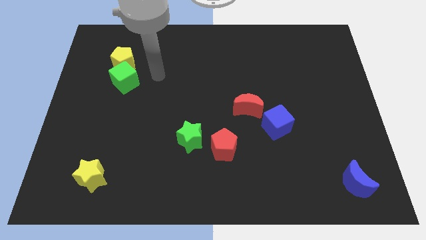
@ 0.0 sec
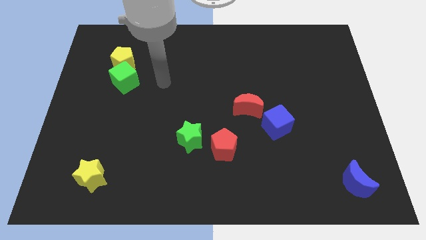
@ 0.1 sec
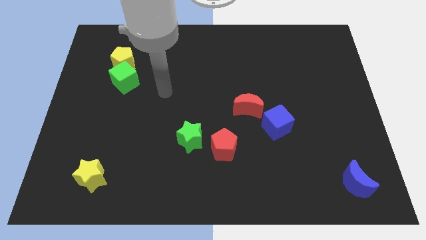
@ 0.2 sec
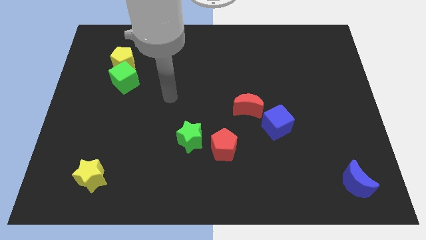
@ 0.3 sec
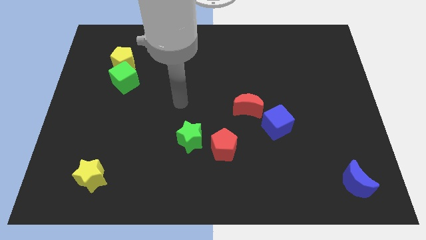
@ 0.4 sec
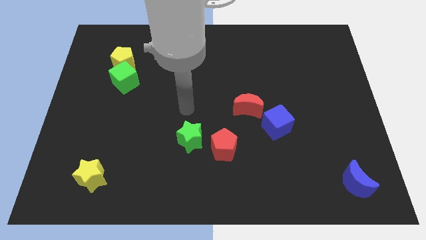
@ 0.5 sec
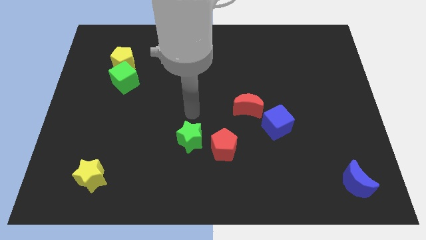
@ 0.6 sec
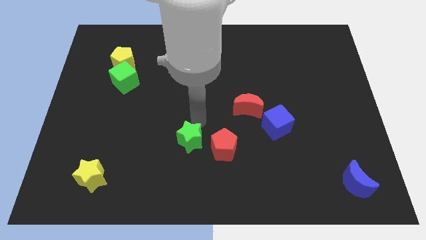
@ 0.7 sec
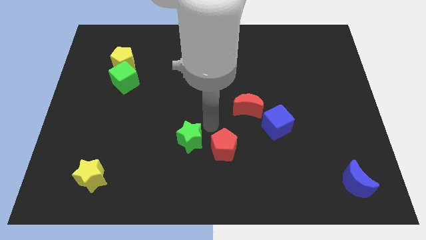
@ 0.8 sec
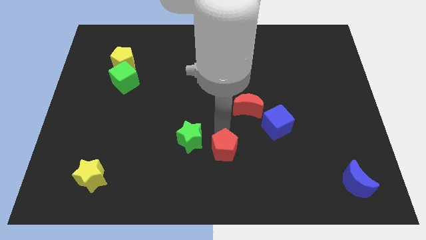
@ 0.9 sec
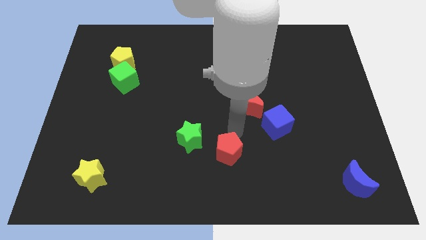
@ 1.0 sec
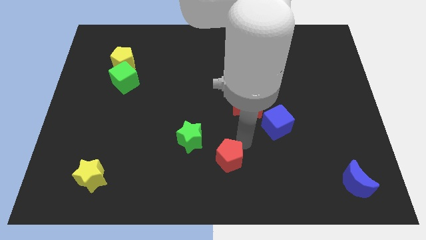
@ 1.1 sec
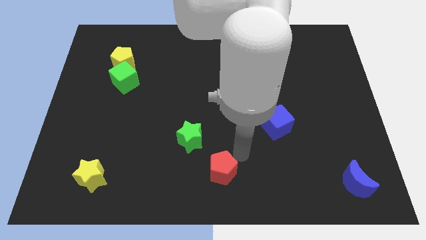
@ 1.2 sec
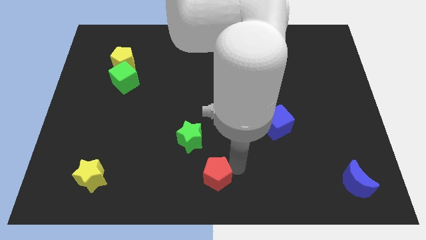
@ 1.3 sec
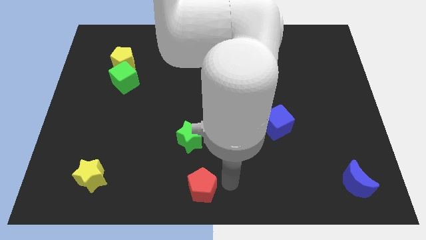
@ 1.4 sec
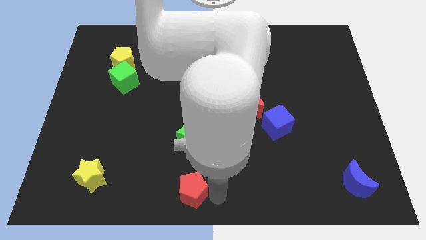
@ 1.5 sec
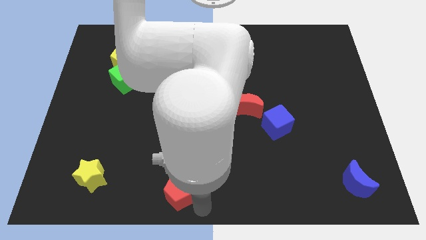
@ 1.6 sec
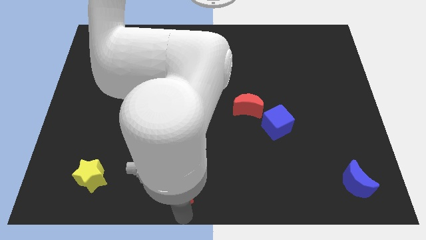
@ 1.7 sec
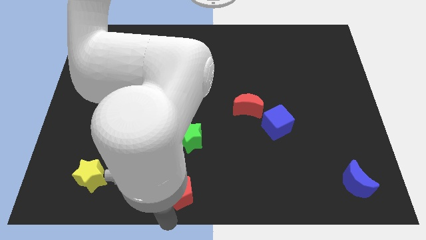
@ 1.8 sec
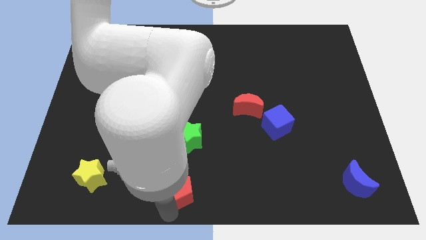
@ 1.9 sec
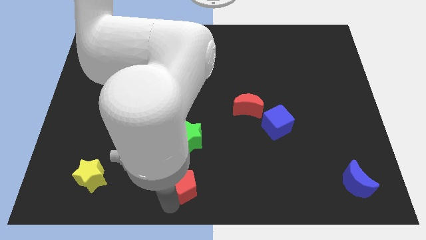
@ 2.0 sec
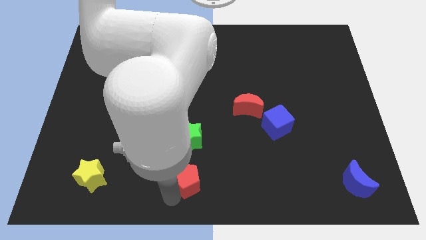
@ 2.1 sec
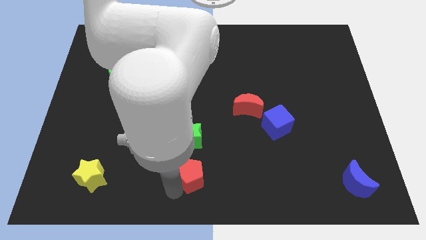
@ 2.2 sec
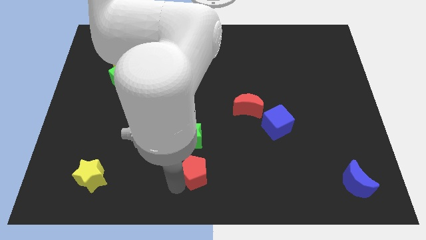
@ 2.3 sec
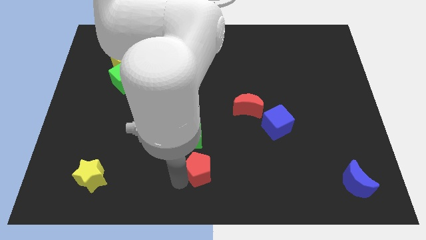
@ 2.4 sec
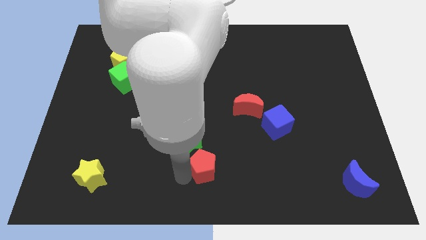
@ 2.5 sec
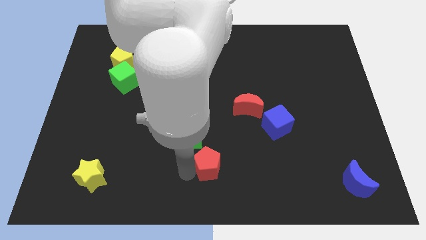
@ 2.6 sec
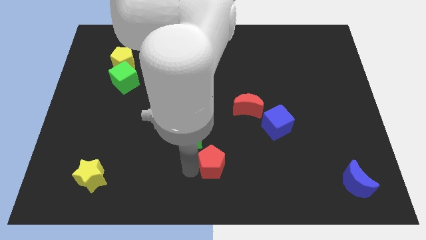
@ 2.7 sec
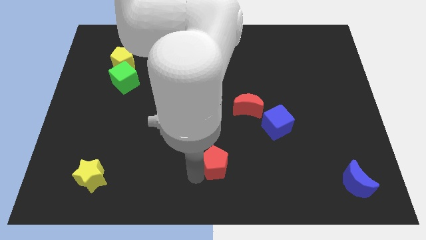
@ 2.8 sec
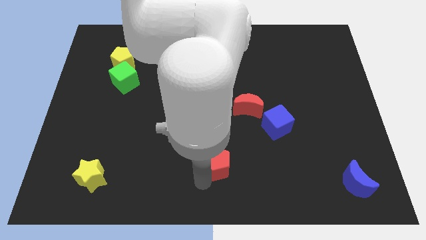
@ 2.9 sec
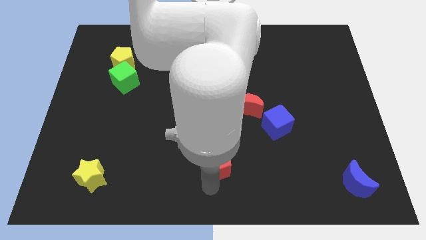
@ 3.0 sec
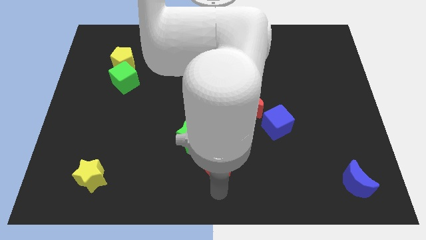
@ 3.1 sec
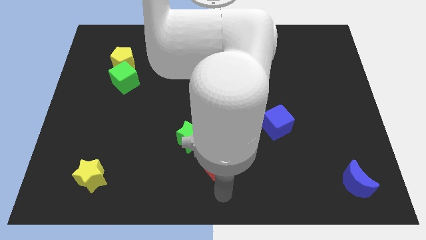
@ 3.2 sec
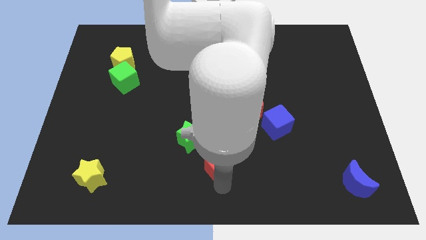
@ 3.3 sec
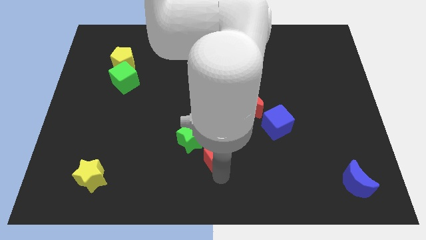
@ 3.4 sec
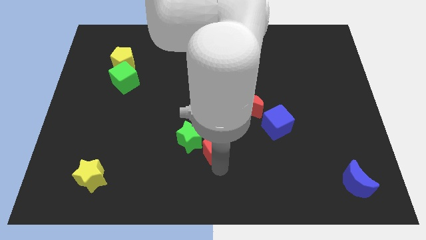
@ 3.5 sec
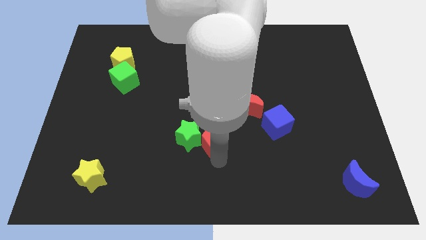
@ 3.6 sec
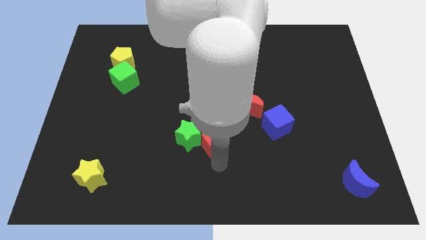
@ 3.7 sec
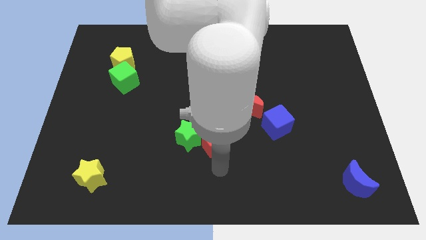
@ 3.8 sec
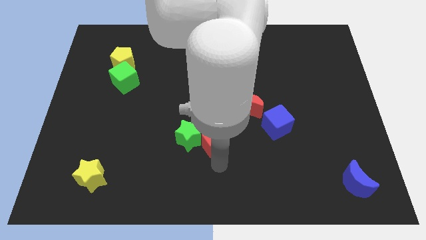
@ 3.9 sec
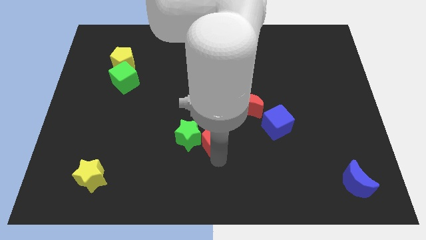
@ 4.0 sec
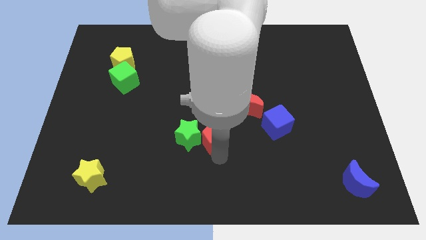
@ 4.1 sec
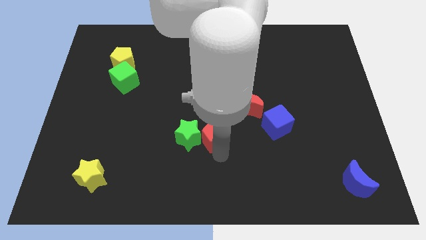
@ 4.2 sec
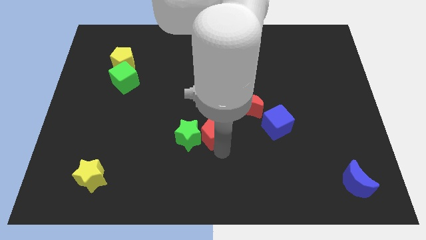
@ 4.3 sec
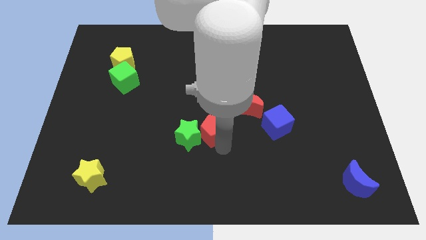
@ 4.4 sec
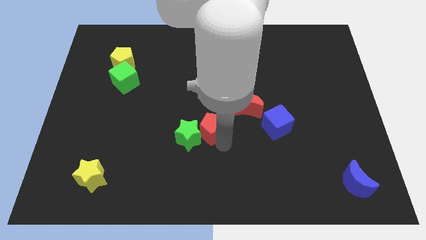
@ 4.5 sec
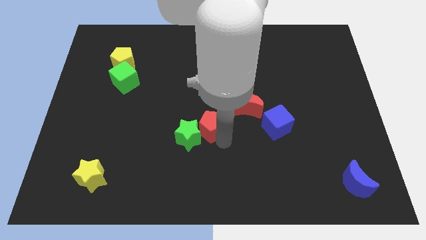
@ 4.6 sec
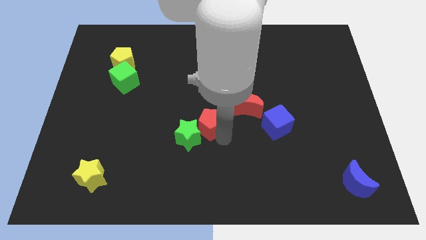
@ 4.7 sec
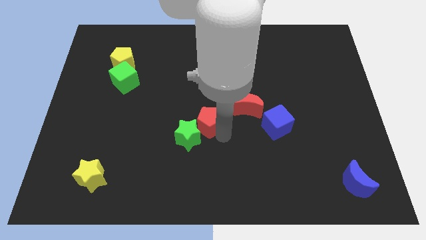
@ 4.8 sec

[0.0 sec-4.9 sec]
slide the red pentagon to the left of the red moon

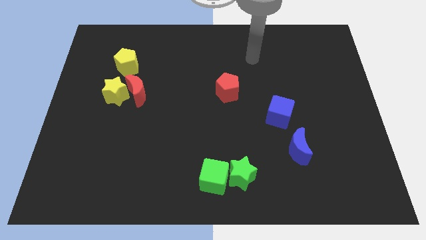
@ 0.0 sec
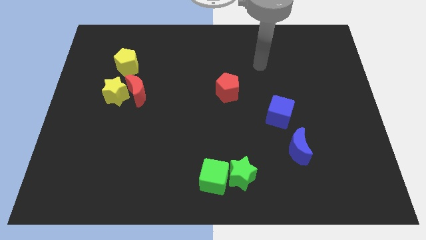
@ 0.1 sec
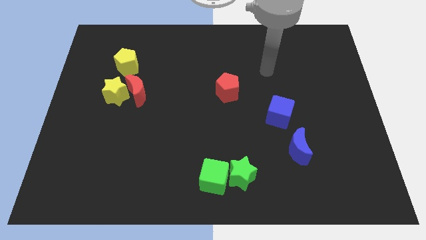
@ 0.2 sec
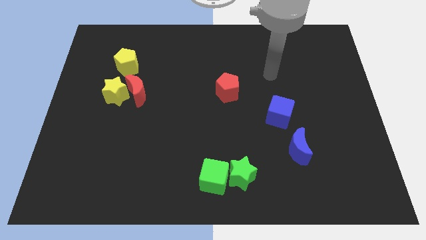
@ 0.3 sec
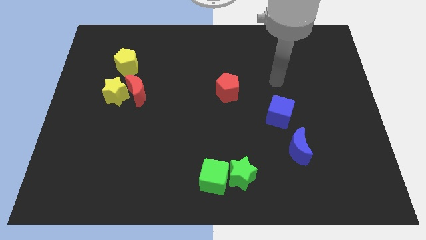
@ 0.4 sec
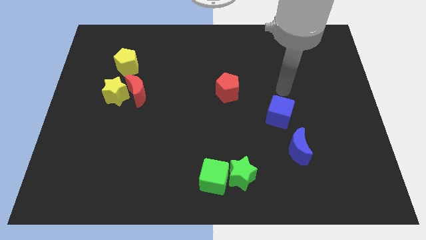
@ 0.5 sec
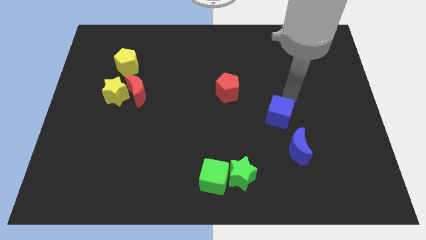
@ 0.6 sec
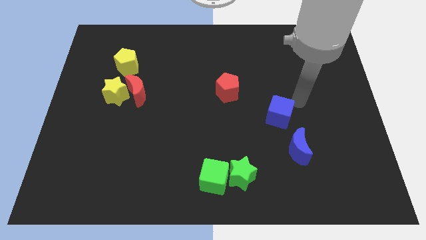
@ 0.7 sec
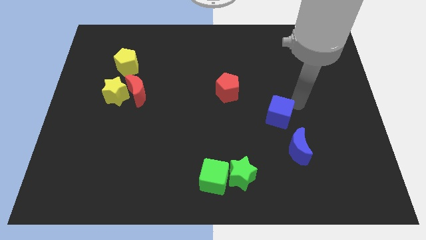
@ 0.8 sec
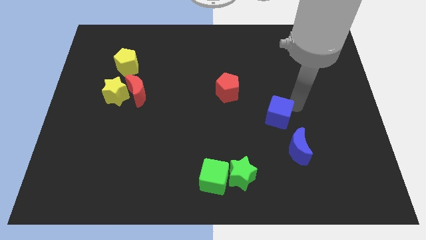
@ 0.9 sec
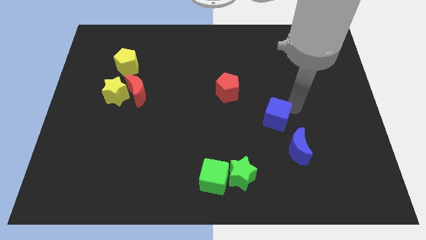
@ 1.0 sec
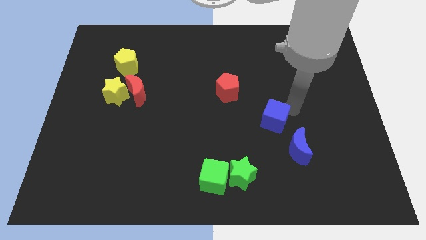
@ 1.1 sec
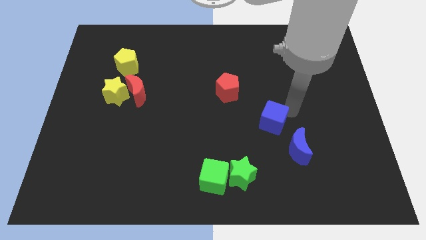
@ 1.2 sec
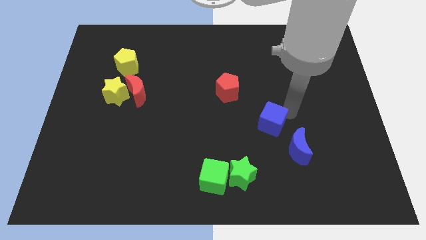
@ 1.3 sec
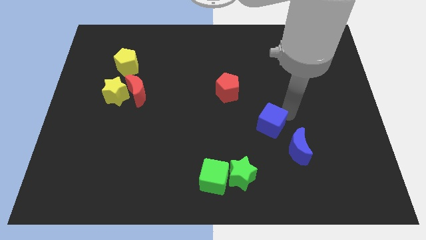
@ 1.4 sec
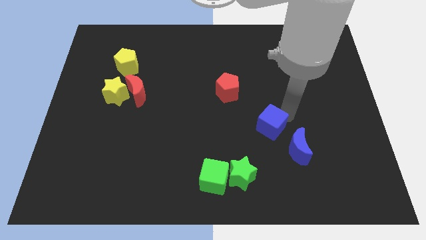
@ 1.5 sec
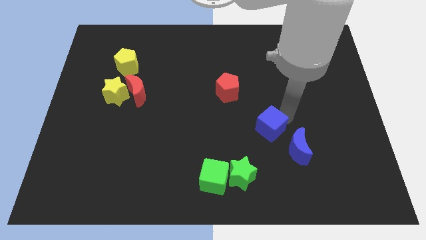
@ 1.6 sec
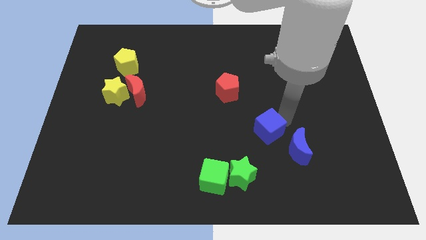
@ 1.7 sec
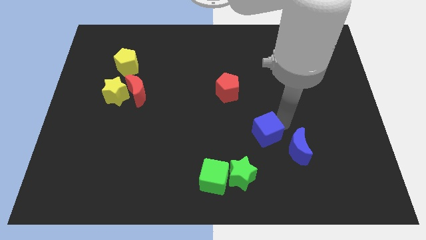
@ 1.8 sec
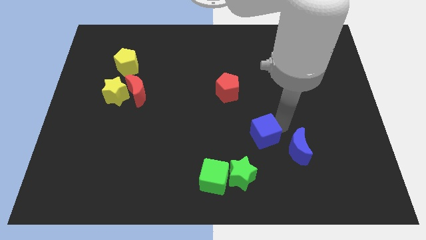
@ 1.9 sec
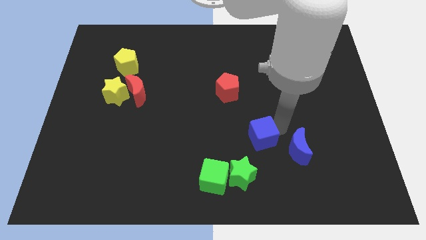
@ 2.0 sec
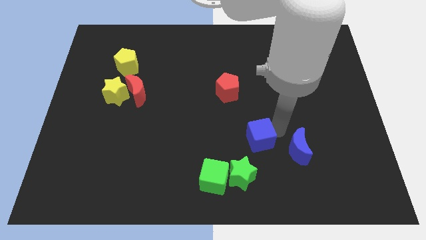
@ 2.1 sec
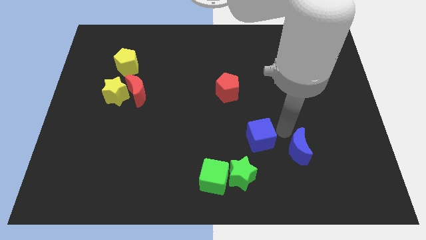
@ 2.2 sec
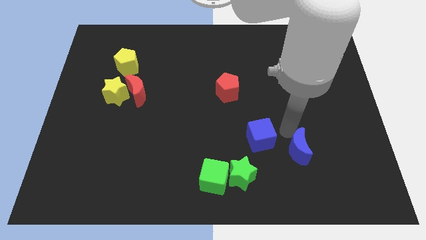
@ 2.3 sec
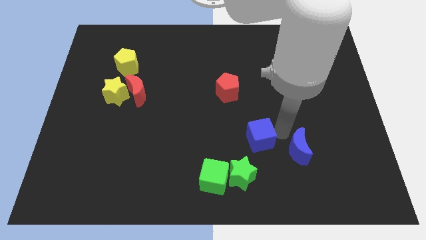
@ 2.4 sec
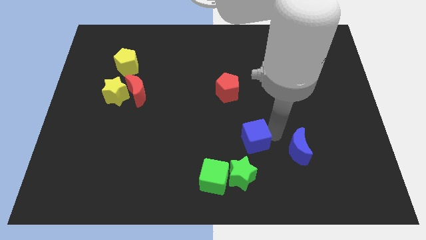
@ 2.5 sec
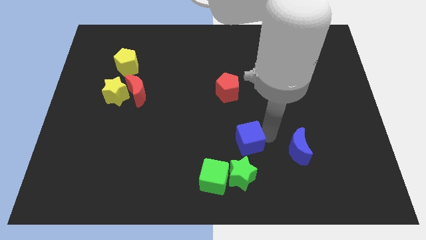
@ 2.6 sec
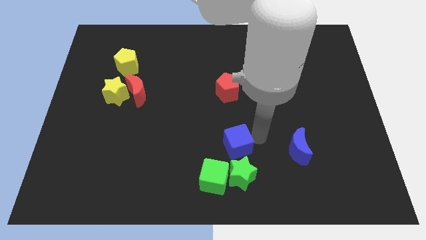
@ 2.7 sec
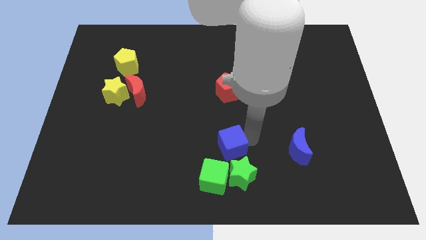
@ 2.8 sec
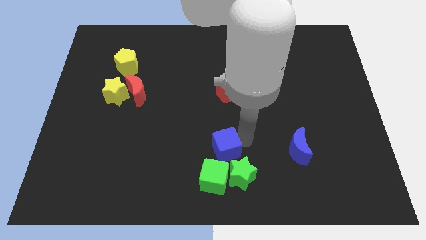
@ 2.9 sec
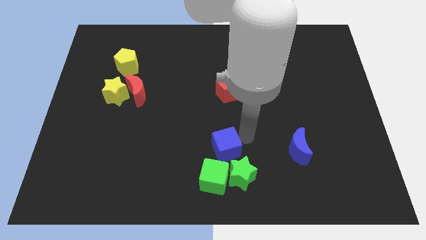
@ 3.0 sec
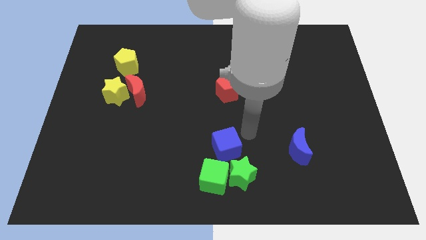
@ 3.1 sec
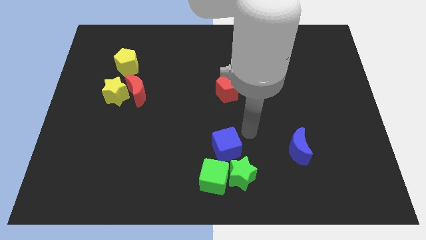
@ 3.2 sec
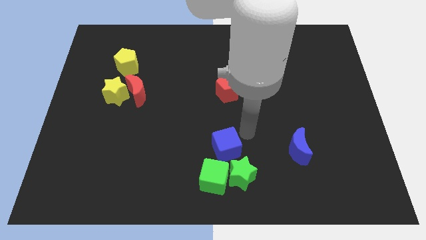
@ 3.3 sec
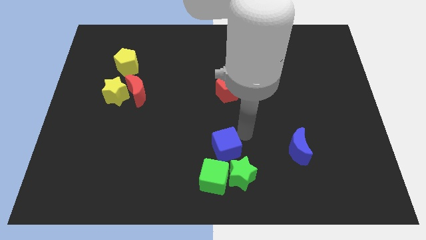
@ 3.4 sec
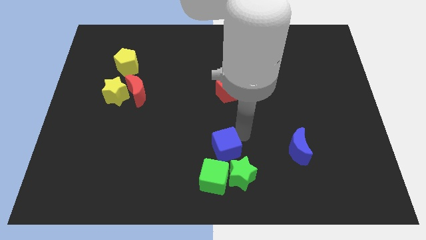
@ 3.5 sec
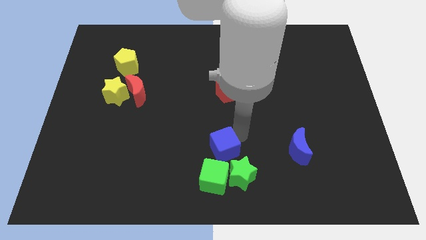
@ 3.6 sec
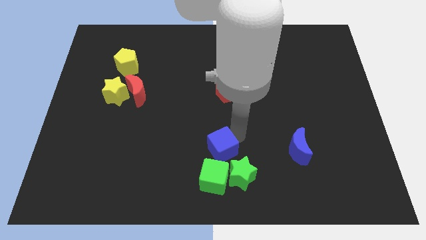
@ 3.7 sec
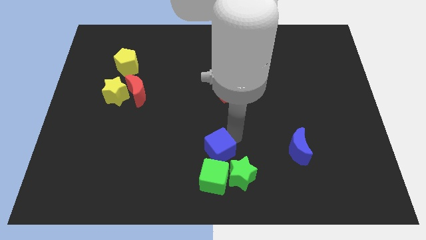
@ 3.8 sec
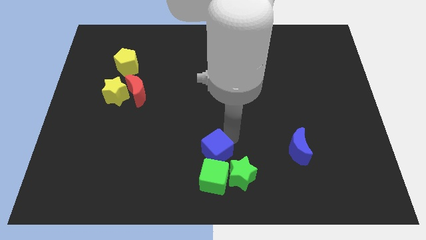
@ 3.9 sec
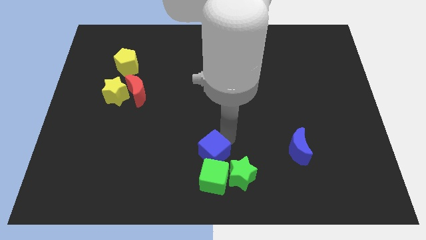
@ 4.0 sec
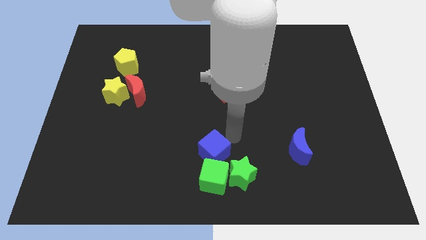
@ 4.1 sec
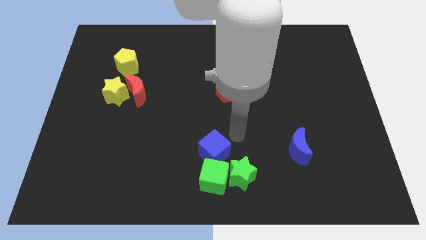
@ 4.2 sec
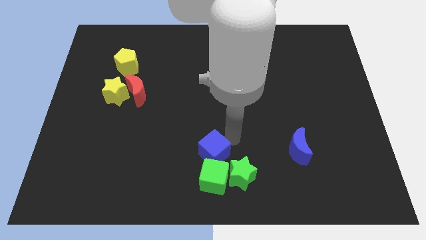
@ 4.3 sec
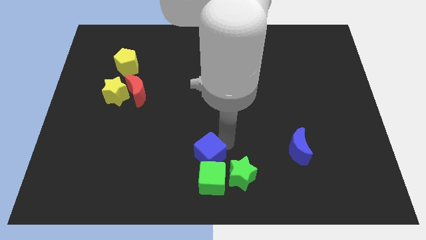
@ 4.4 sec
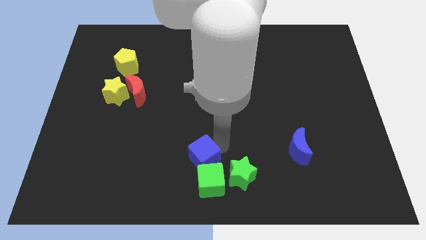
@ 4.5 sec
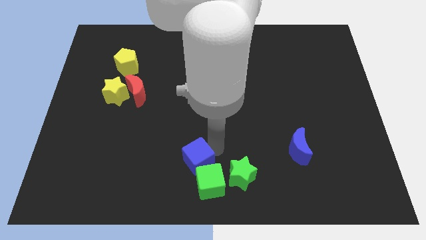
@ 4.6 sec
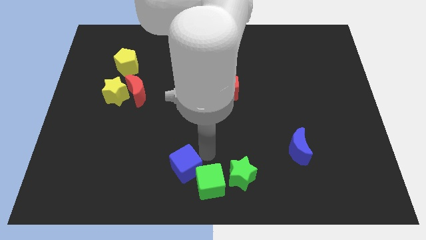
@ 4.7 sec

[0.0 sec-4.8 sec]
move the blue cube to the left of the green cube
